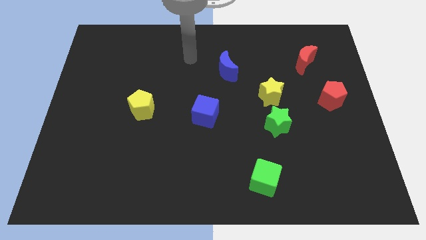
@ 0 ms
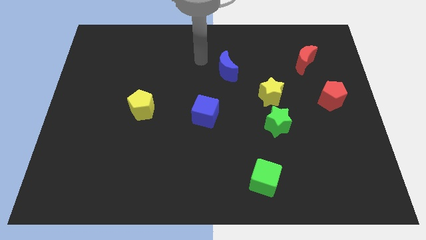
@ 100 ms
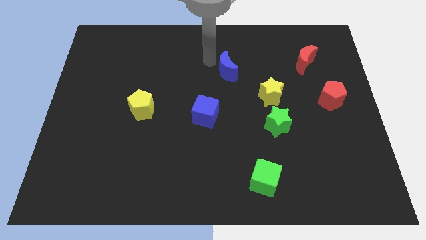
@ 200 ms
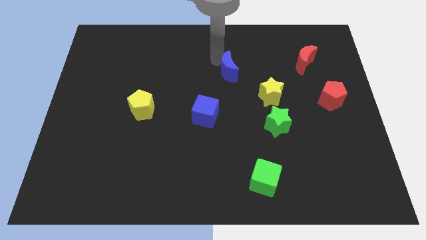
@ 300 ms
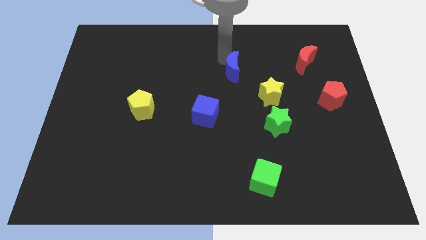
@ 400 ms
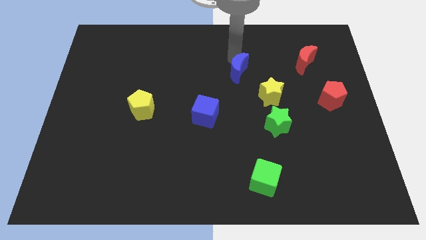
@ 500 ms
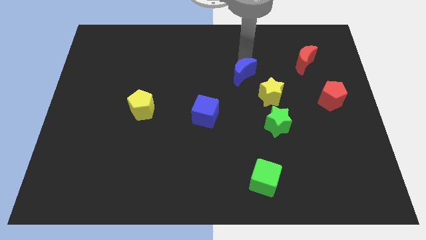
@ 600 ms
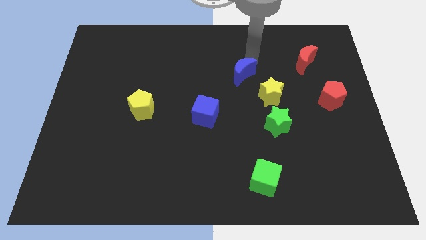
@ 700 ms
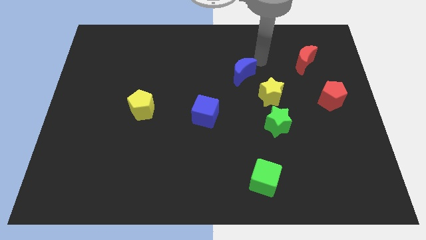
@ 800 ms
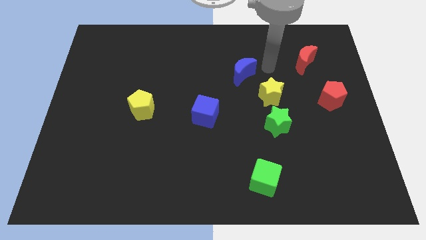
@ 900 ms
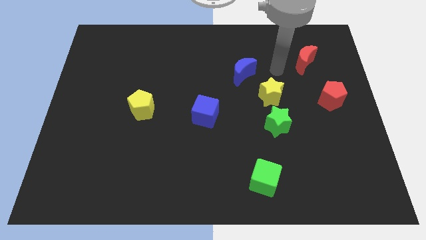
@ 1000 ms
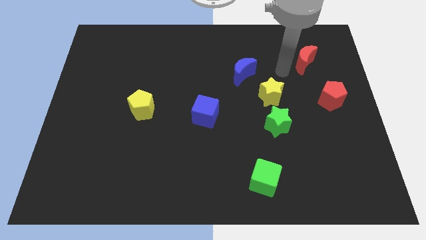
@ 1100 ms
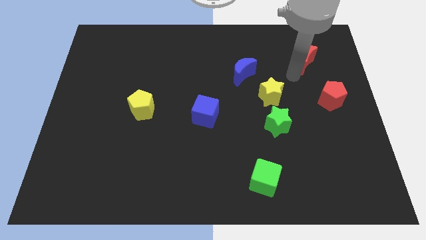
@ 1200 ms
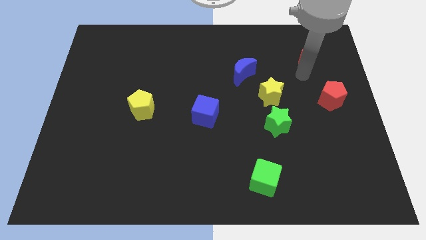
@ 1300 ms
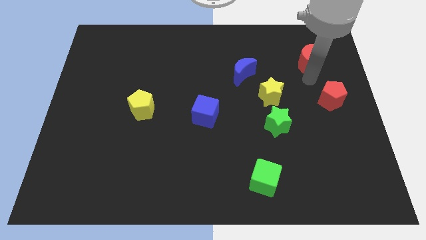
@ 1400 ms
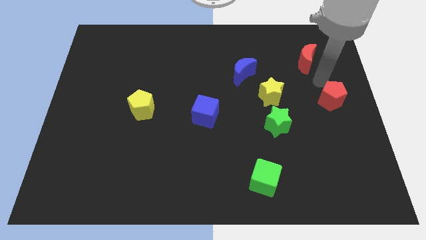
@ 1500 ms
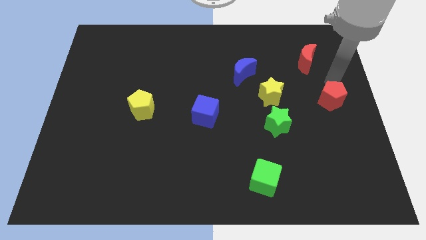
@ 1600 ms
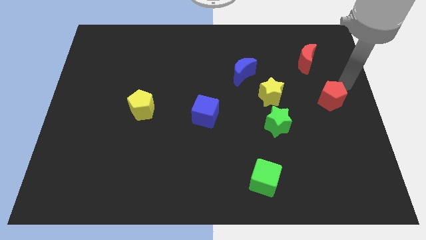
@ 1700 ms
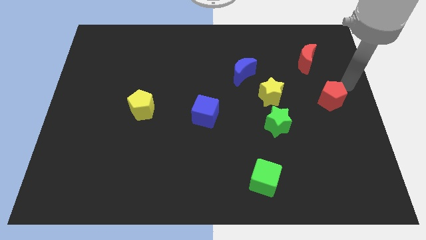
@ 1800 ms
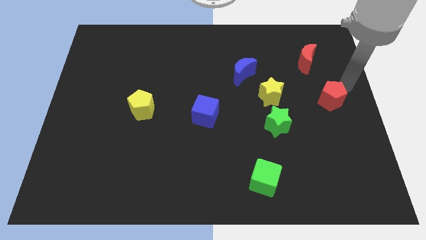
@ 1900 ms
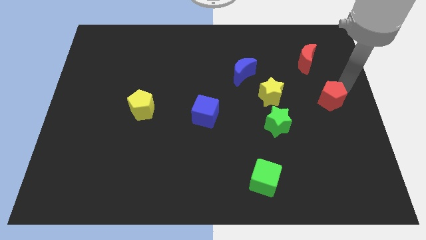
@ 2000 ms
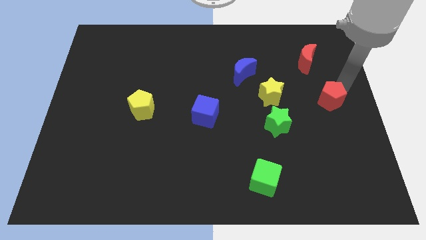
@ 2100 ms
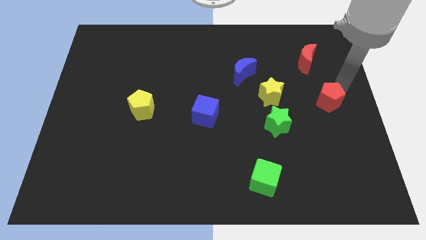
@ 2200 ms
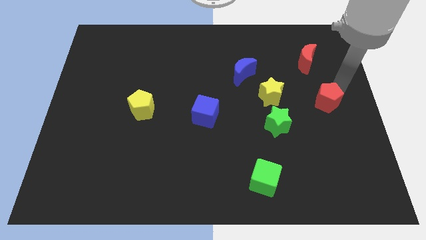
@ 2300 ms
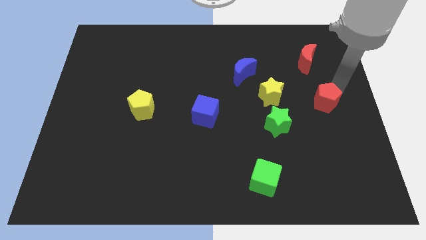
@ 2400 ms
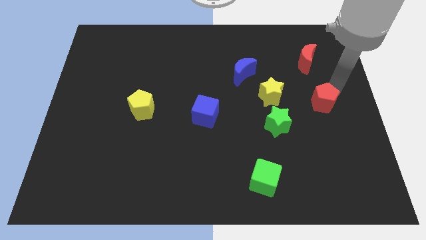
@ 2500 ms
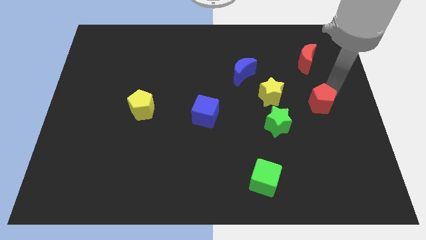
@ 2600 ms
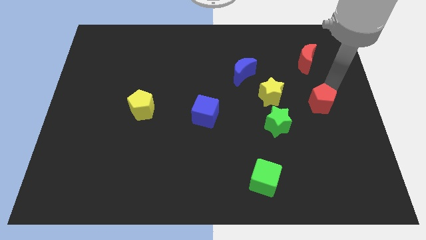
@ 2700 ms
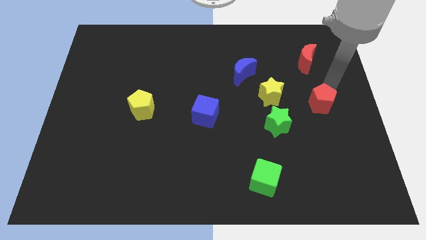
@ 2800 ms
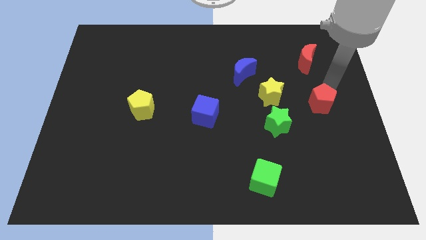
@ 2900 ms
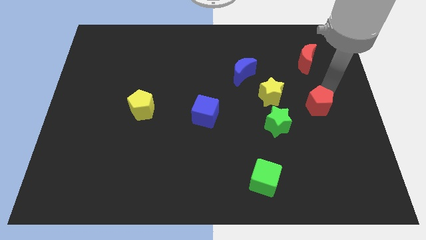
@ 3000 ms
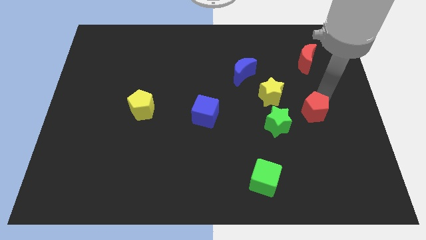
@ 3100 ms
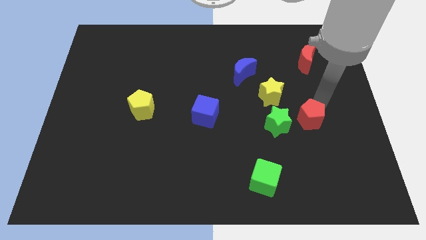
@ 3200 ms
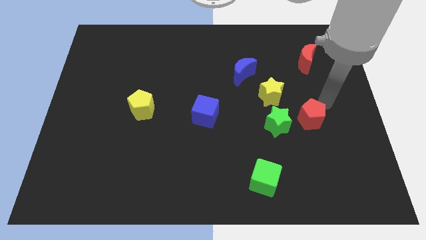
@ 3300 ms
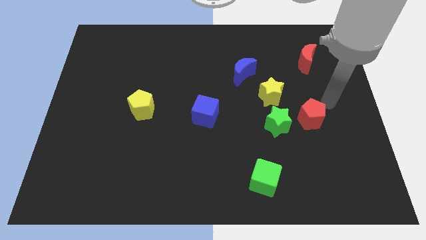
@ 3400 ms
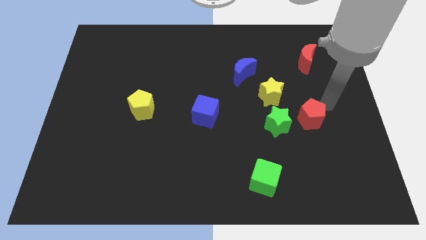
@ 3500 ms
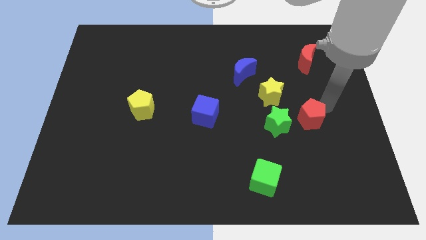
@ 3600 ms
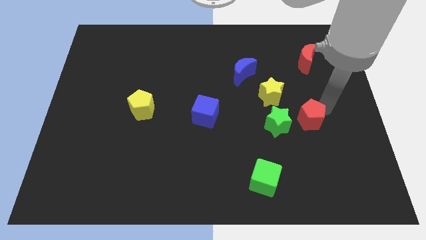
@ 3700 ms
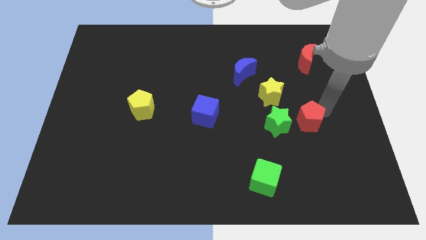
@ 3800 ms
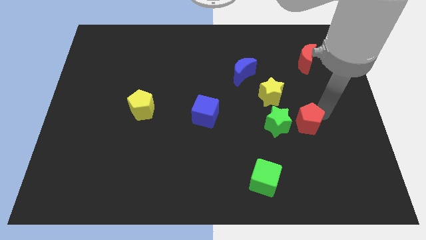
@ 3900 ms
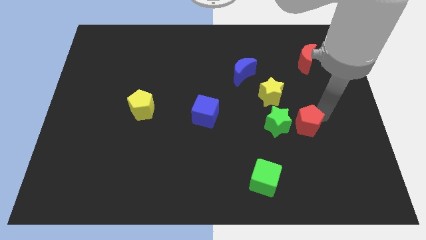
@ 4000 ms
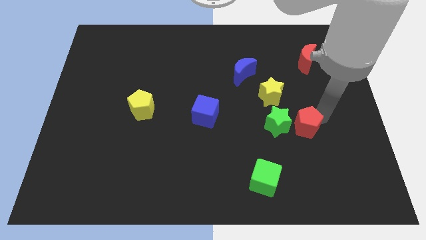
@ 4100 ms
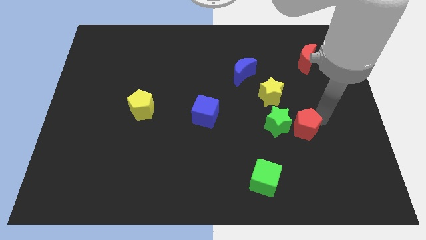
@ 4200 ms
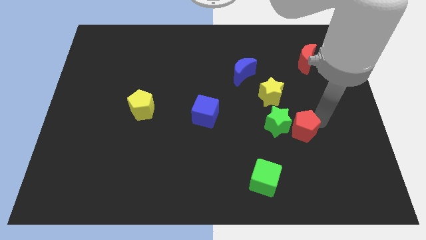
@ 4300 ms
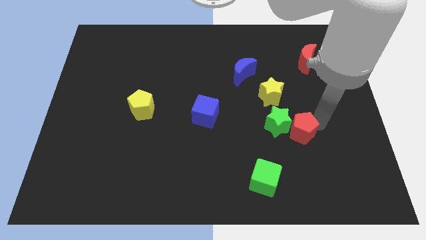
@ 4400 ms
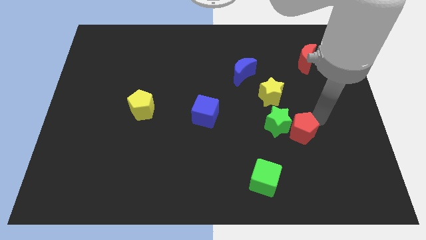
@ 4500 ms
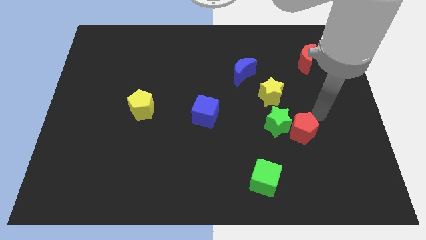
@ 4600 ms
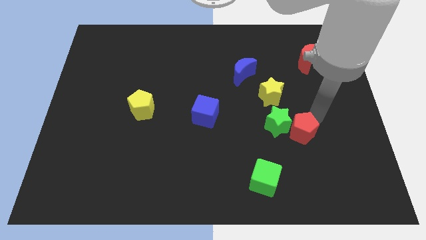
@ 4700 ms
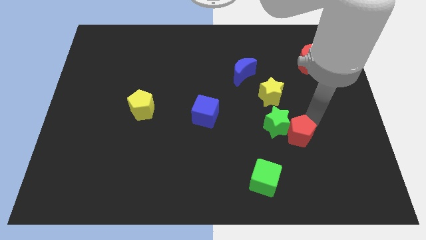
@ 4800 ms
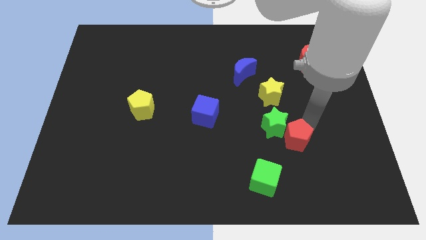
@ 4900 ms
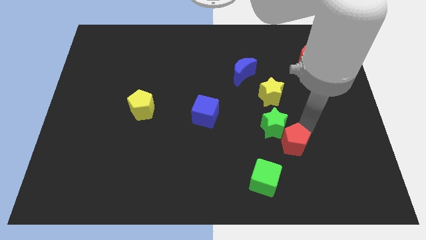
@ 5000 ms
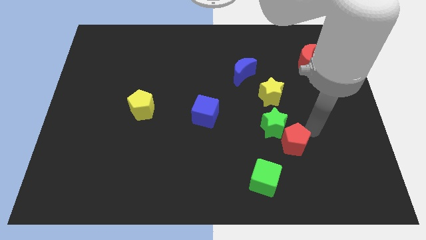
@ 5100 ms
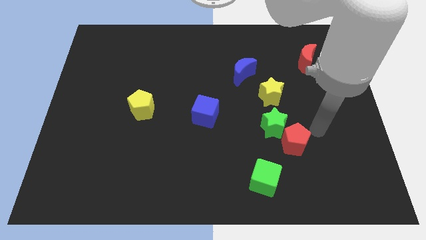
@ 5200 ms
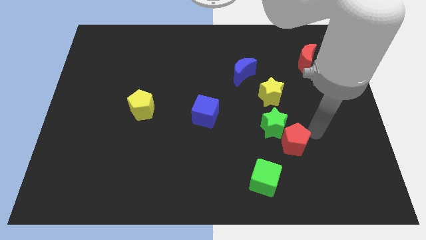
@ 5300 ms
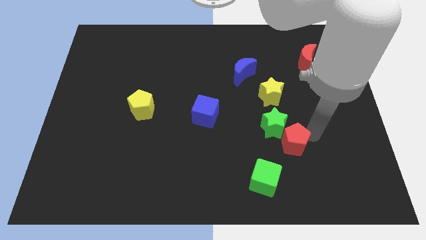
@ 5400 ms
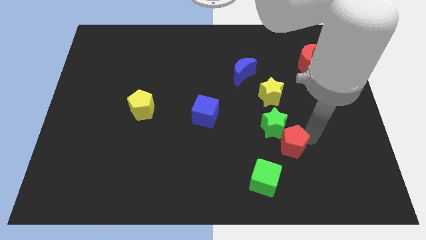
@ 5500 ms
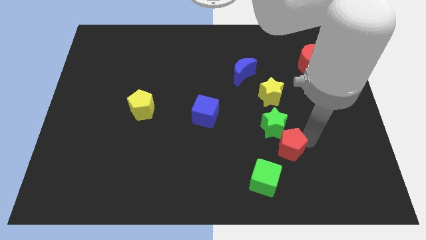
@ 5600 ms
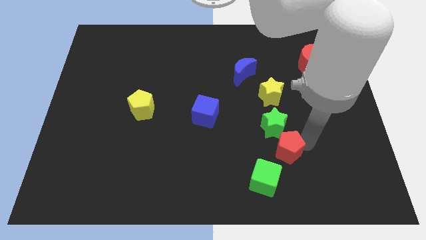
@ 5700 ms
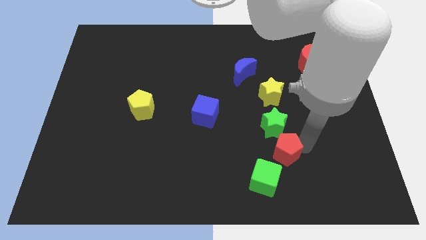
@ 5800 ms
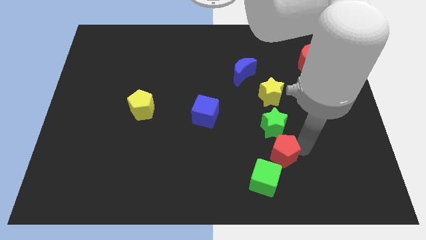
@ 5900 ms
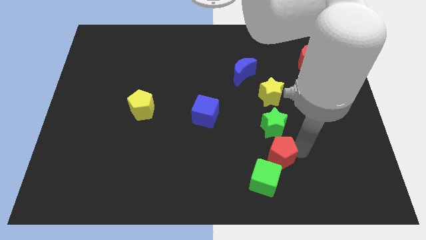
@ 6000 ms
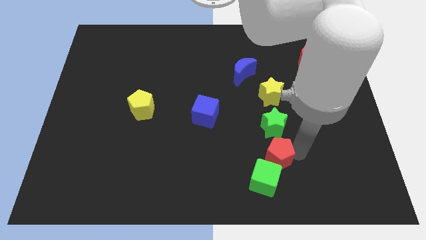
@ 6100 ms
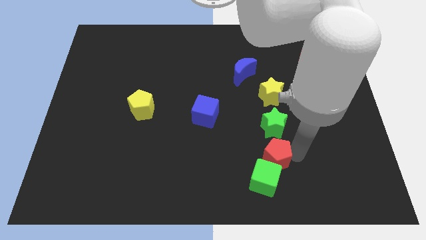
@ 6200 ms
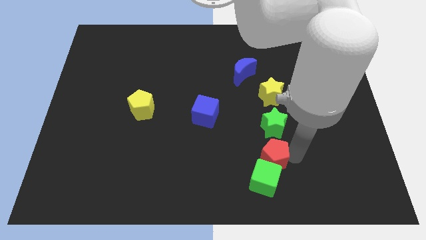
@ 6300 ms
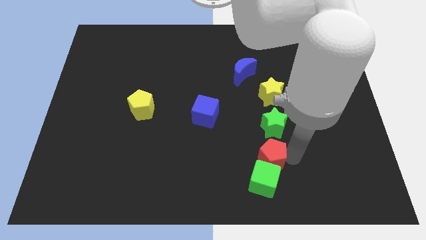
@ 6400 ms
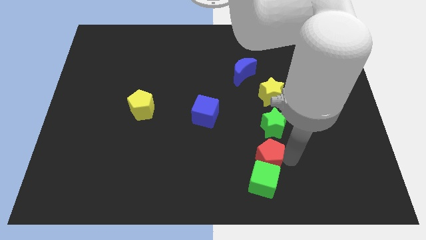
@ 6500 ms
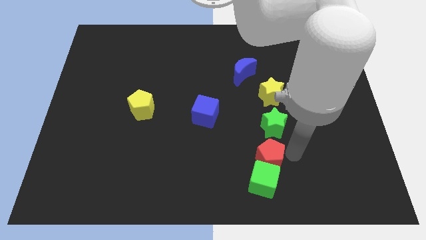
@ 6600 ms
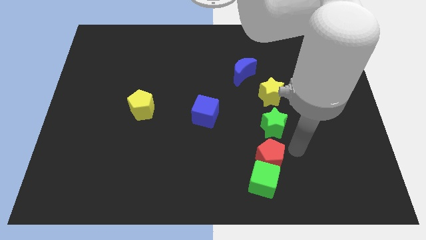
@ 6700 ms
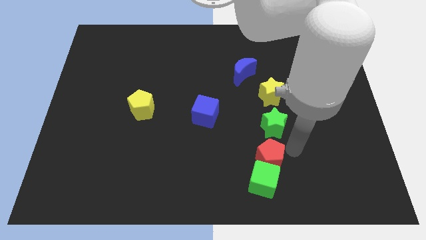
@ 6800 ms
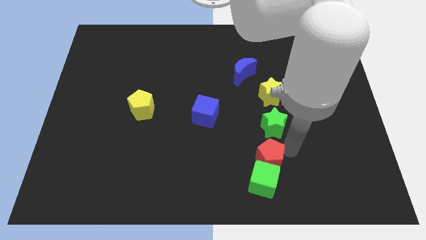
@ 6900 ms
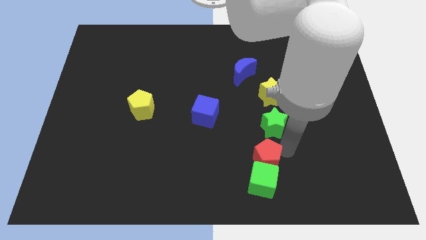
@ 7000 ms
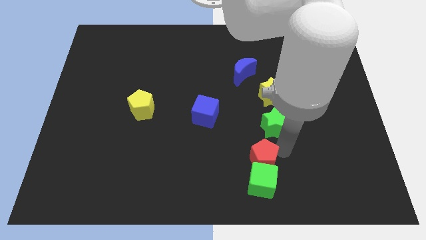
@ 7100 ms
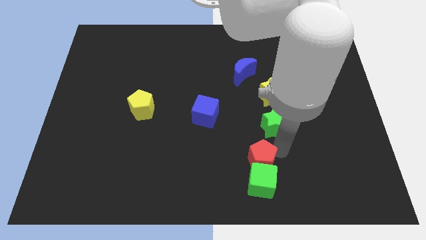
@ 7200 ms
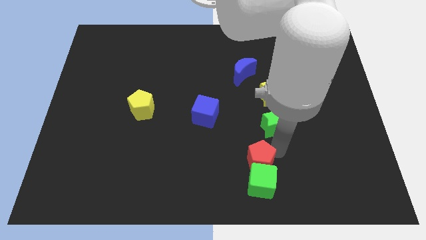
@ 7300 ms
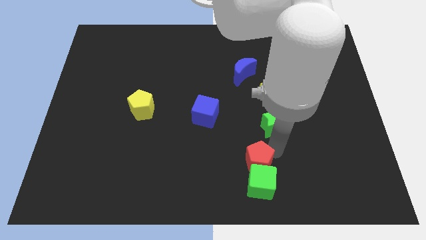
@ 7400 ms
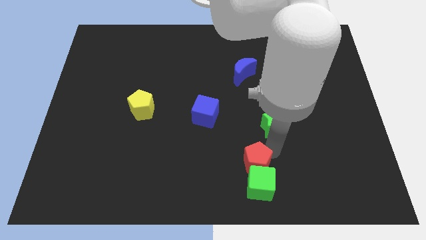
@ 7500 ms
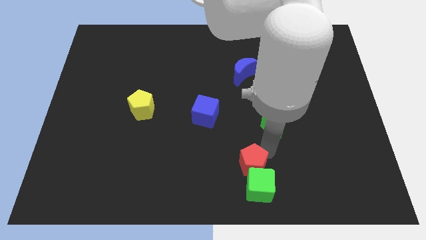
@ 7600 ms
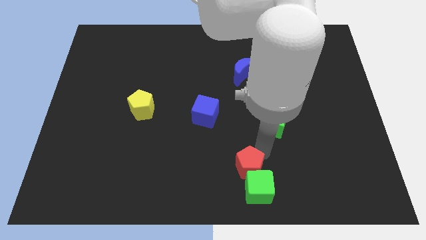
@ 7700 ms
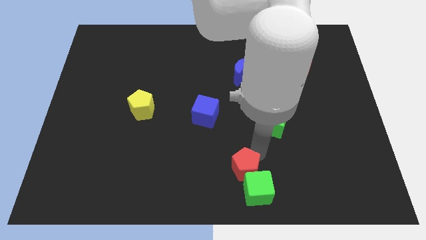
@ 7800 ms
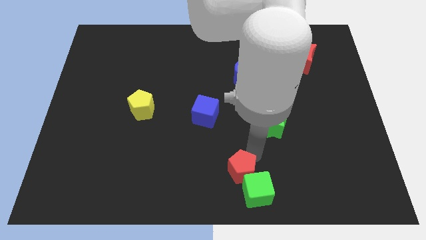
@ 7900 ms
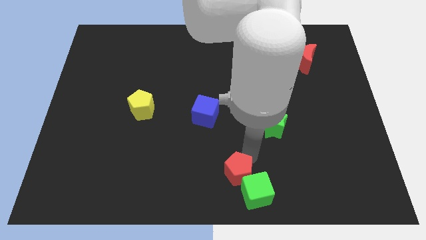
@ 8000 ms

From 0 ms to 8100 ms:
move the red pentagon just left of the green cube
